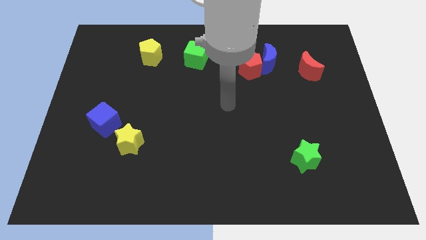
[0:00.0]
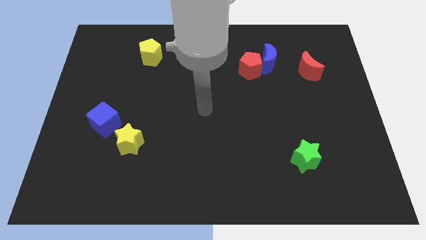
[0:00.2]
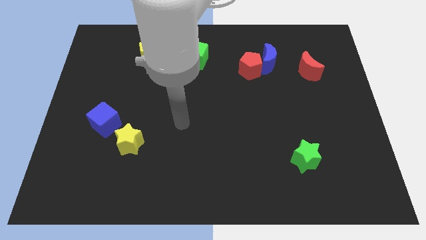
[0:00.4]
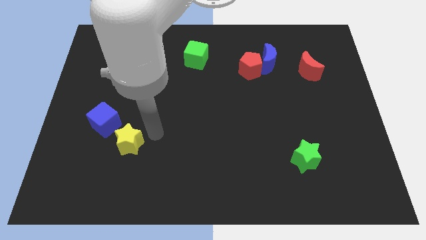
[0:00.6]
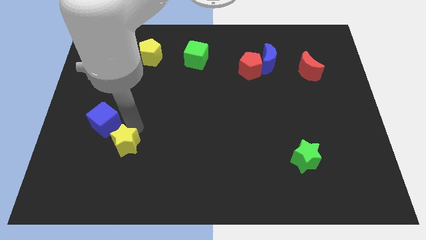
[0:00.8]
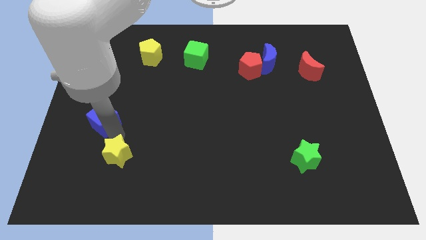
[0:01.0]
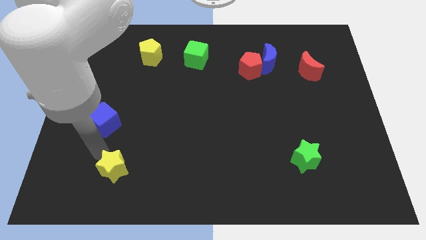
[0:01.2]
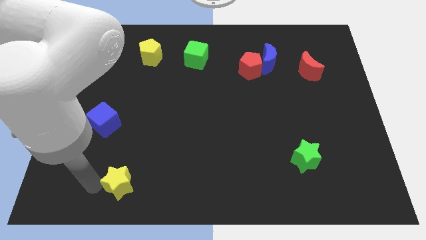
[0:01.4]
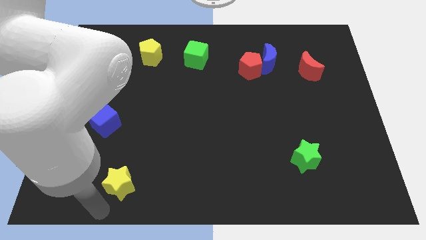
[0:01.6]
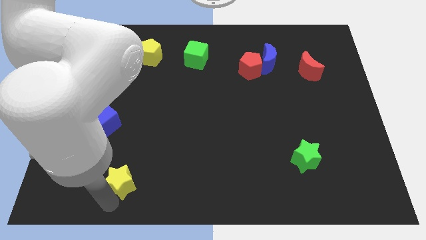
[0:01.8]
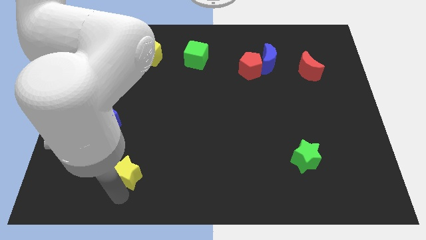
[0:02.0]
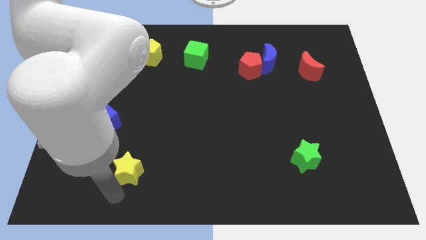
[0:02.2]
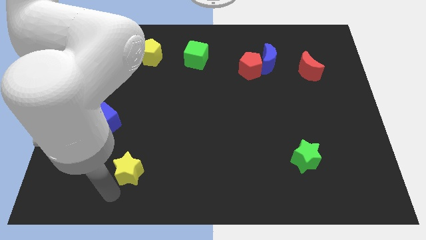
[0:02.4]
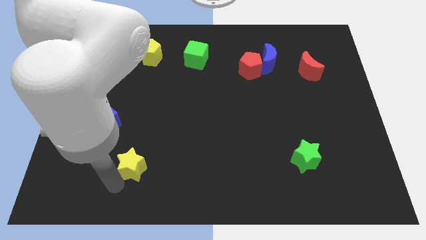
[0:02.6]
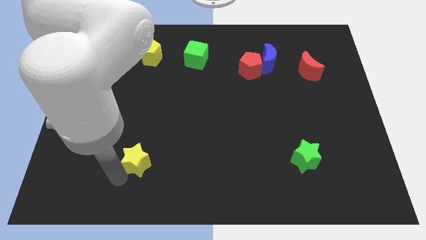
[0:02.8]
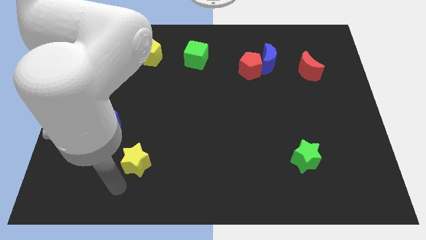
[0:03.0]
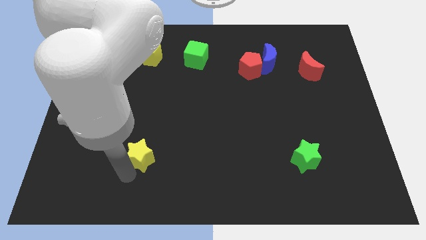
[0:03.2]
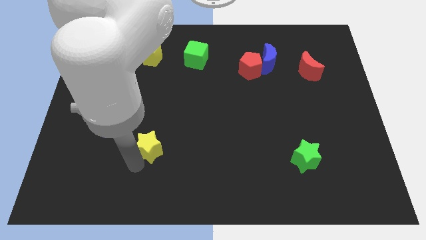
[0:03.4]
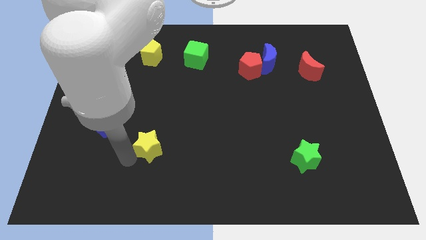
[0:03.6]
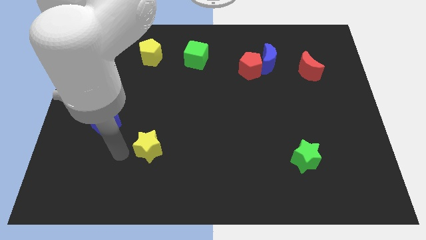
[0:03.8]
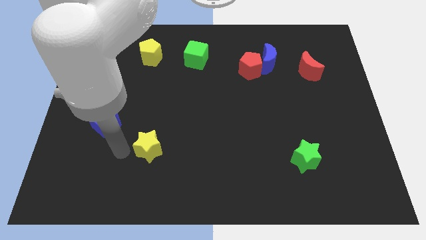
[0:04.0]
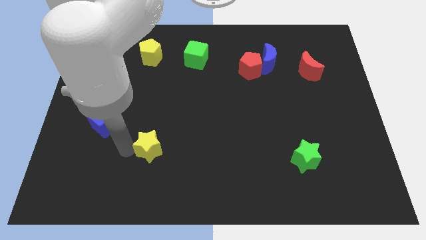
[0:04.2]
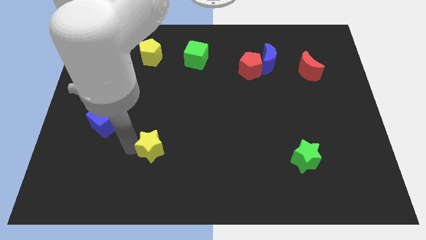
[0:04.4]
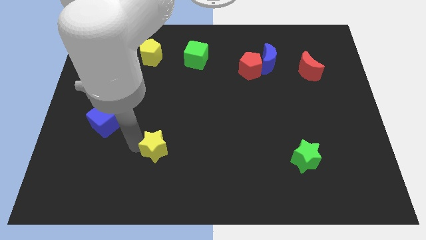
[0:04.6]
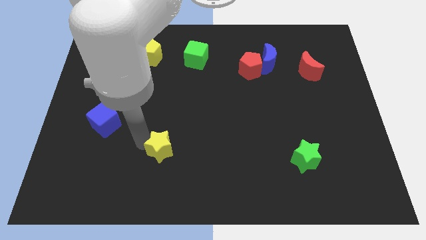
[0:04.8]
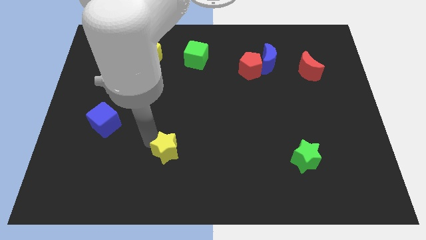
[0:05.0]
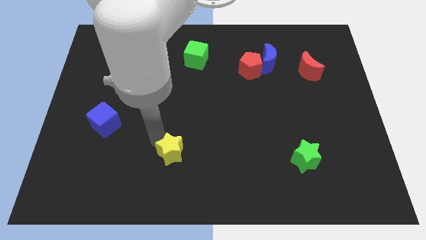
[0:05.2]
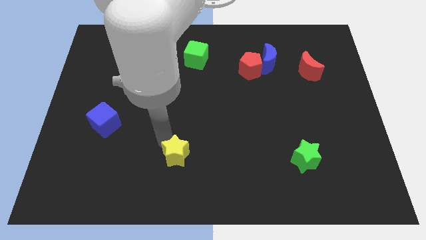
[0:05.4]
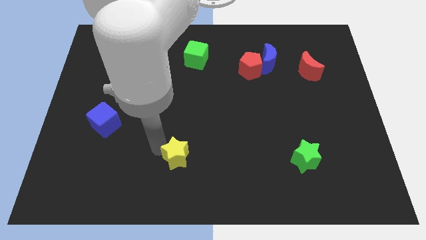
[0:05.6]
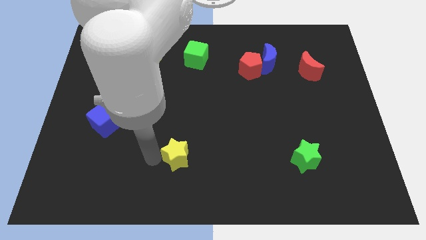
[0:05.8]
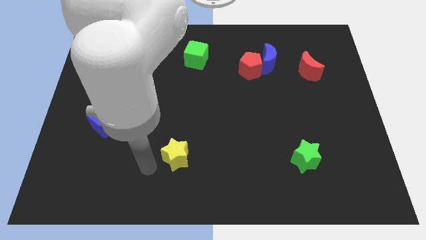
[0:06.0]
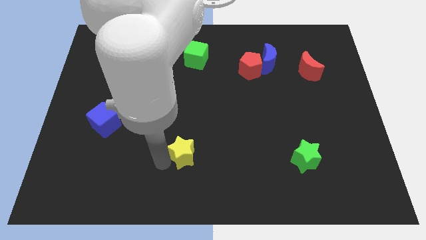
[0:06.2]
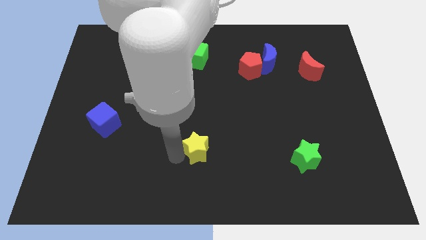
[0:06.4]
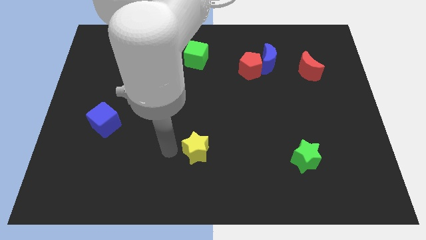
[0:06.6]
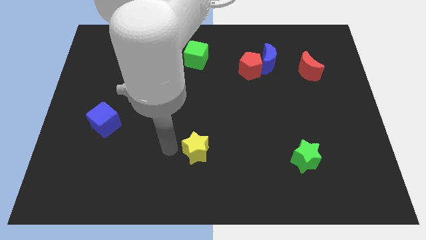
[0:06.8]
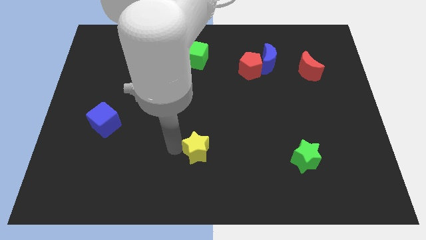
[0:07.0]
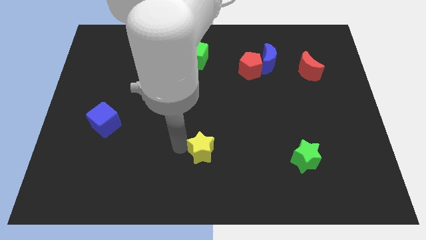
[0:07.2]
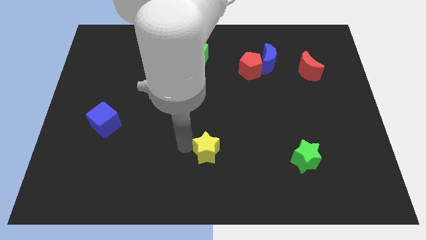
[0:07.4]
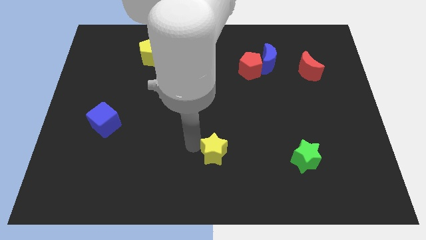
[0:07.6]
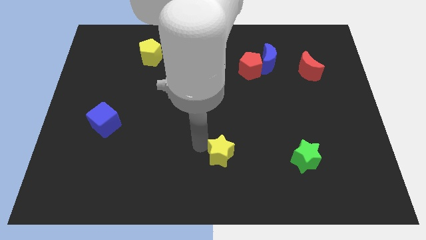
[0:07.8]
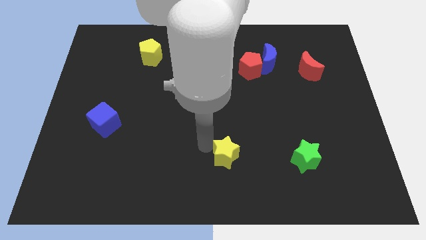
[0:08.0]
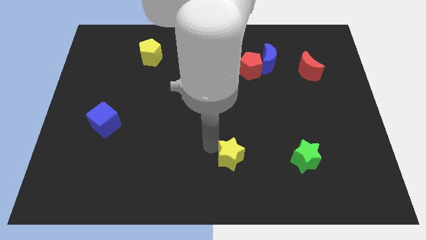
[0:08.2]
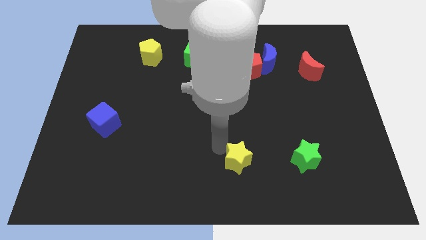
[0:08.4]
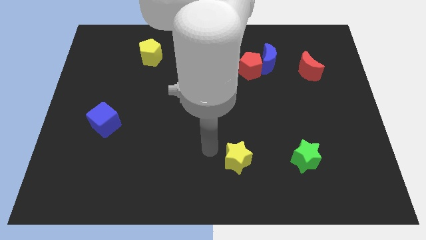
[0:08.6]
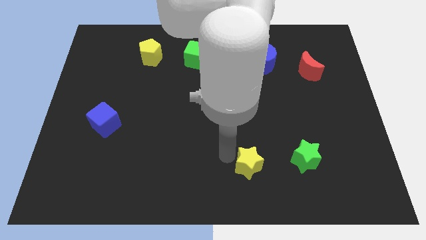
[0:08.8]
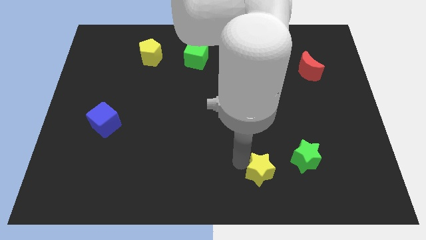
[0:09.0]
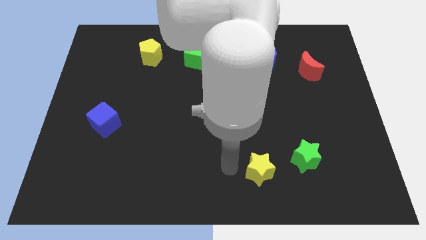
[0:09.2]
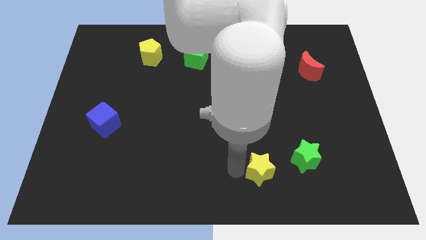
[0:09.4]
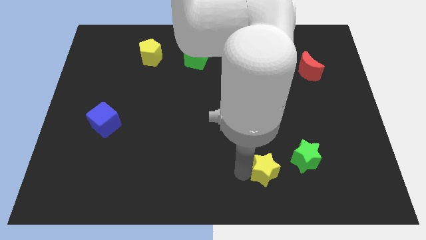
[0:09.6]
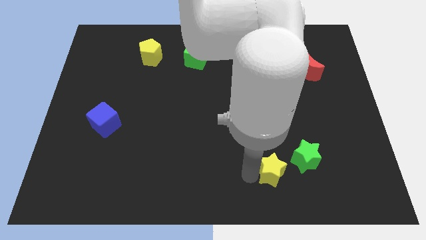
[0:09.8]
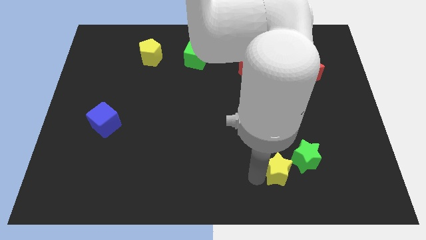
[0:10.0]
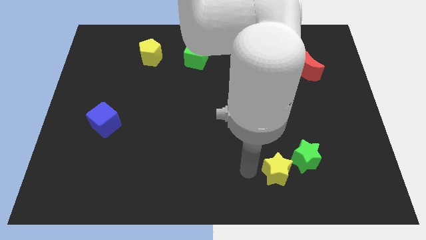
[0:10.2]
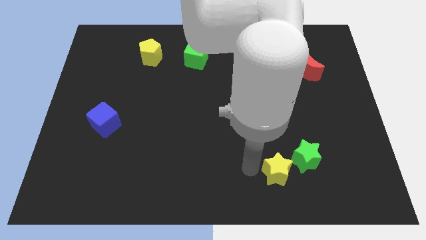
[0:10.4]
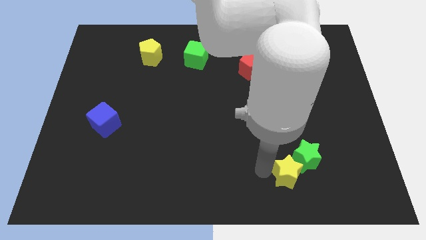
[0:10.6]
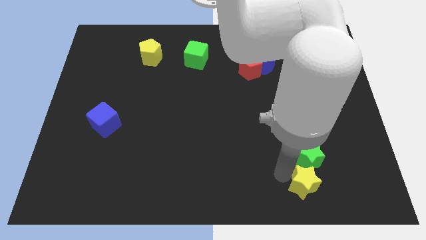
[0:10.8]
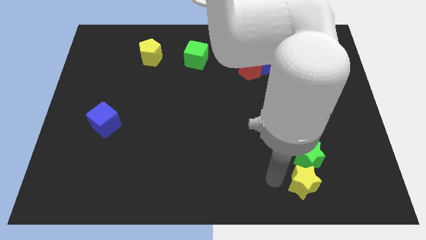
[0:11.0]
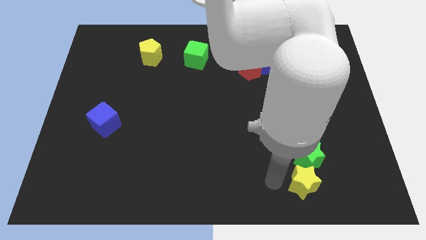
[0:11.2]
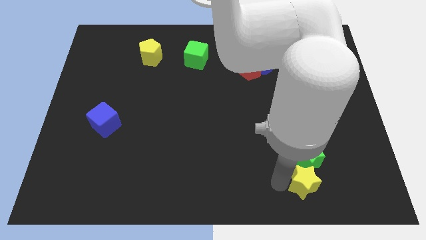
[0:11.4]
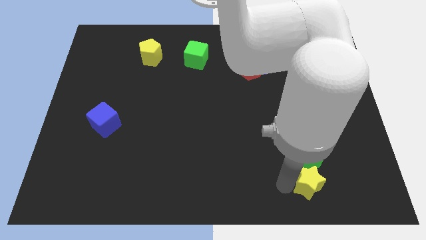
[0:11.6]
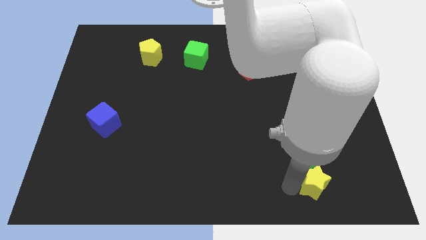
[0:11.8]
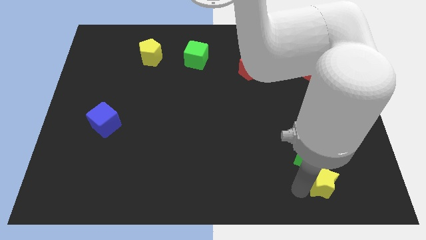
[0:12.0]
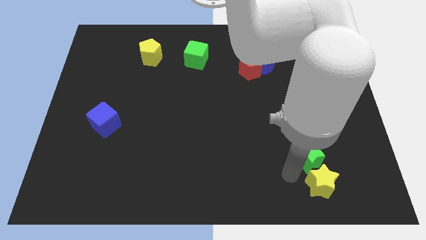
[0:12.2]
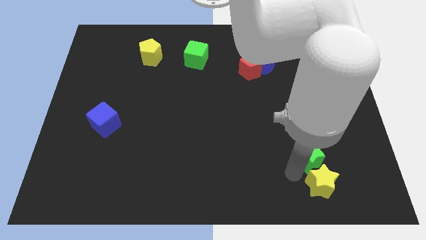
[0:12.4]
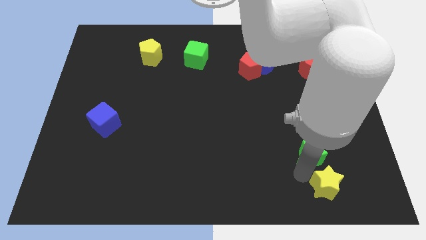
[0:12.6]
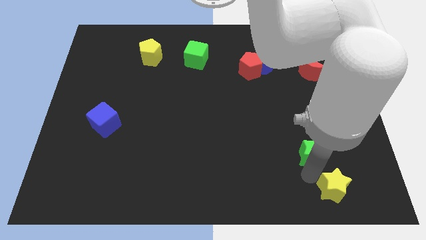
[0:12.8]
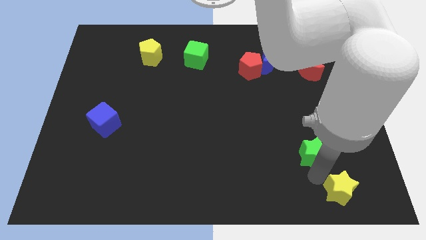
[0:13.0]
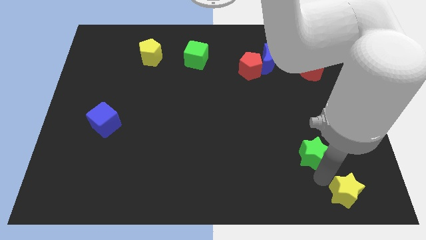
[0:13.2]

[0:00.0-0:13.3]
push the yellow star to the bottom right corner
